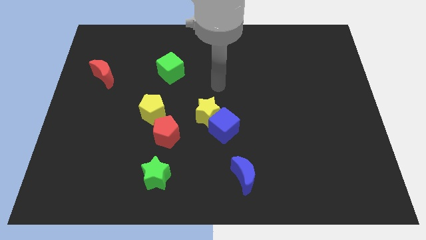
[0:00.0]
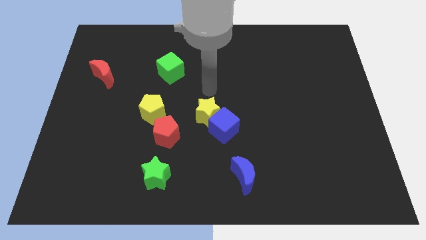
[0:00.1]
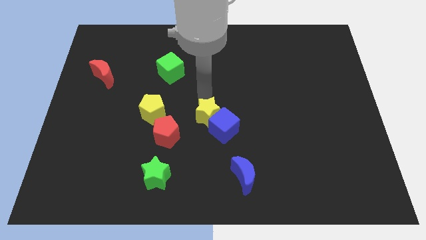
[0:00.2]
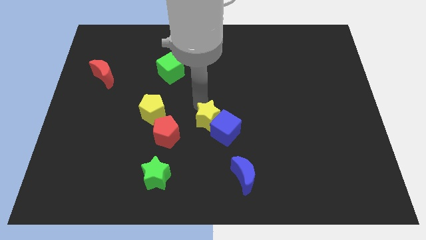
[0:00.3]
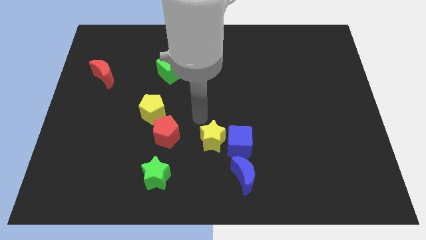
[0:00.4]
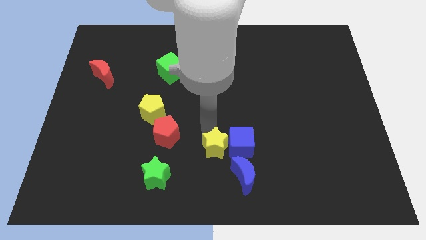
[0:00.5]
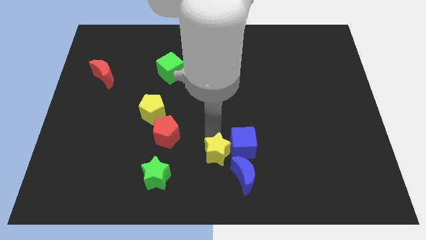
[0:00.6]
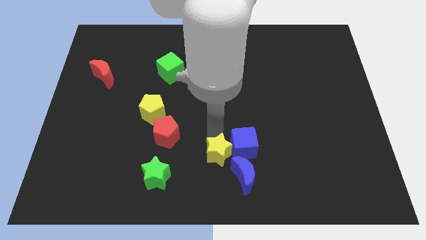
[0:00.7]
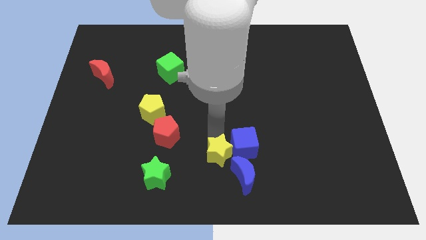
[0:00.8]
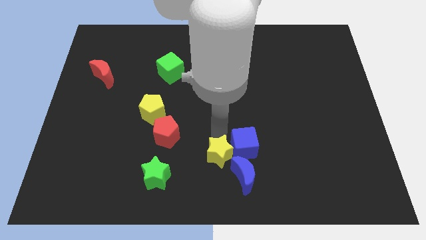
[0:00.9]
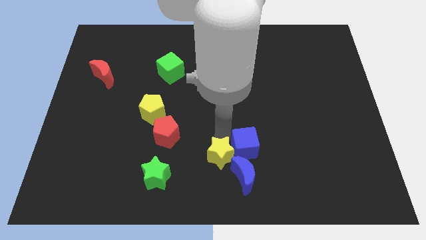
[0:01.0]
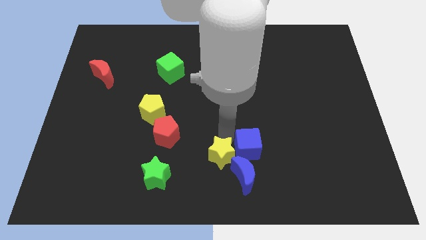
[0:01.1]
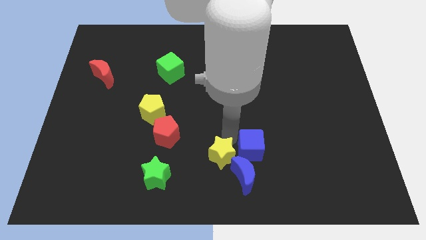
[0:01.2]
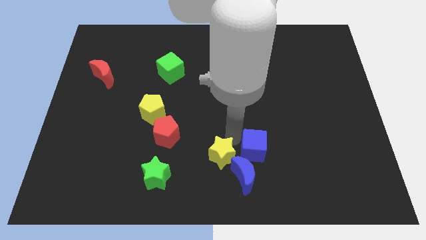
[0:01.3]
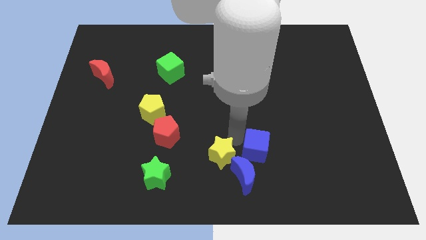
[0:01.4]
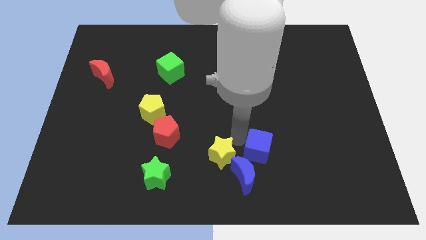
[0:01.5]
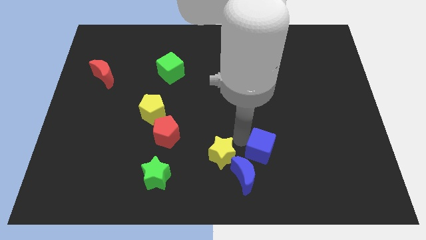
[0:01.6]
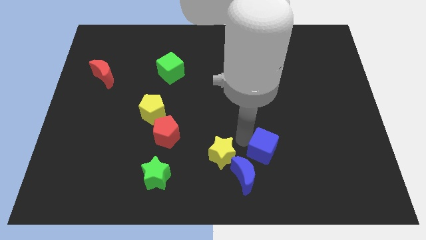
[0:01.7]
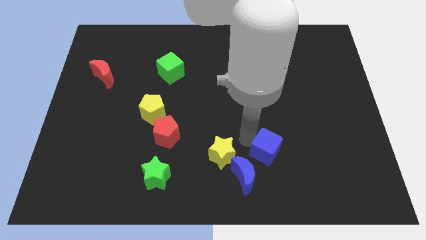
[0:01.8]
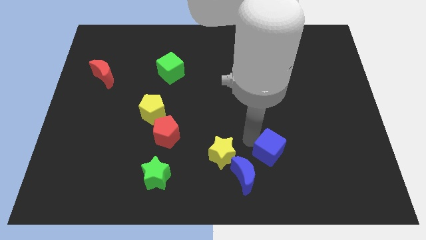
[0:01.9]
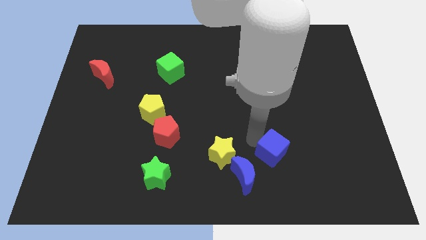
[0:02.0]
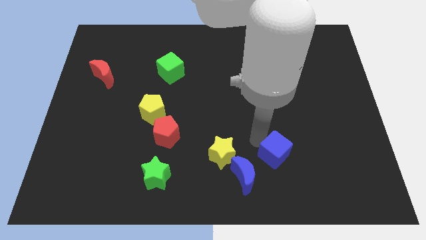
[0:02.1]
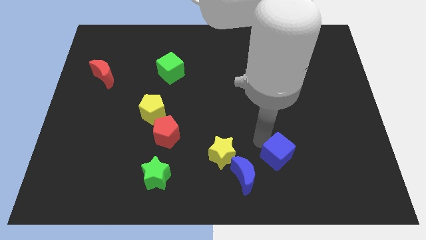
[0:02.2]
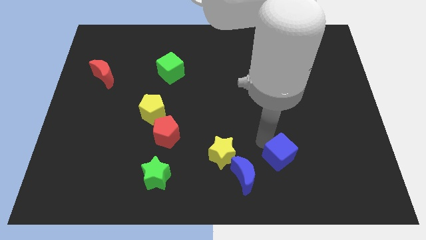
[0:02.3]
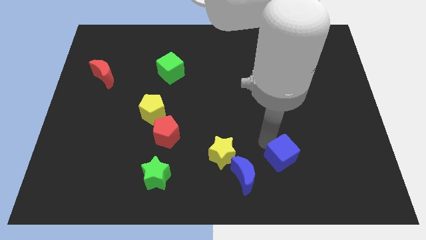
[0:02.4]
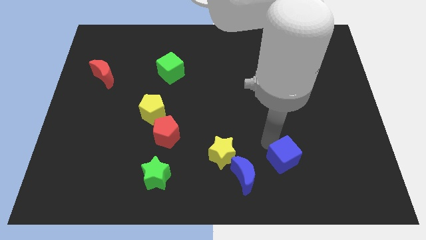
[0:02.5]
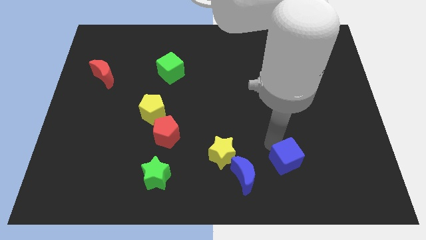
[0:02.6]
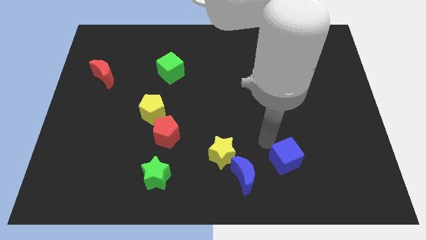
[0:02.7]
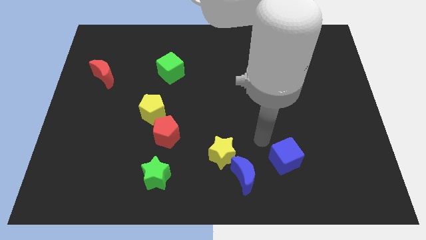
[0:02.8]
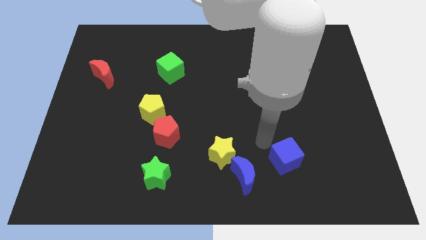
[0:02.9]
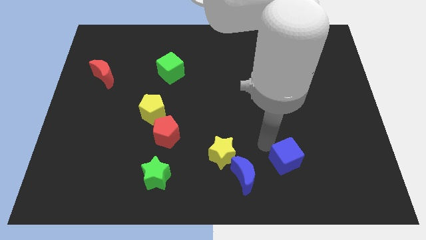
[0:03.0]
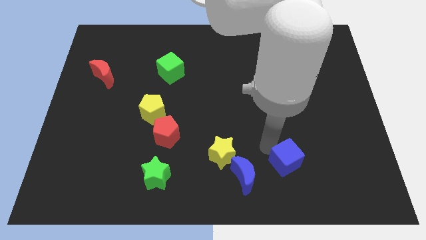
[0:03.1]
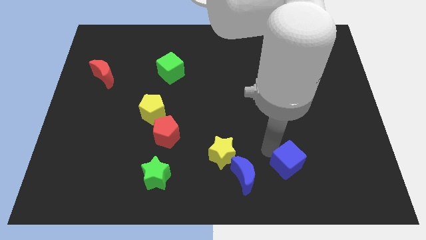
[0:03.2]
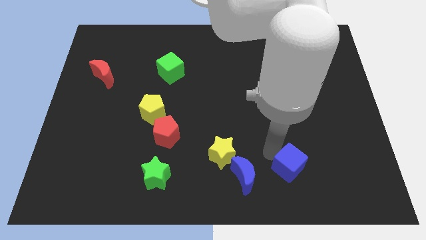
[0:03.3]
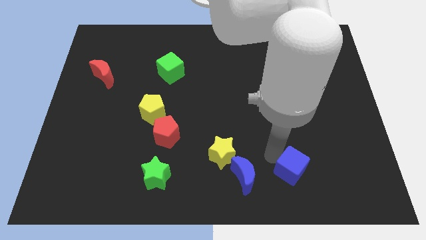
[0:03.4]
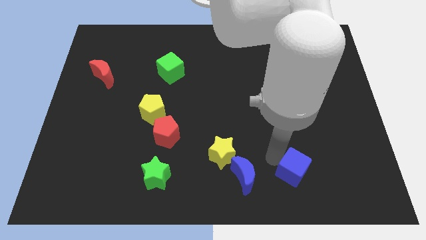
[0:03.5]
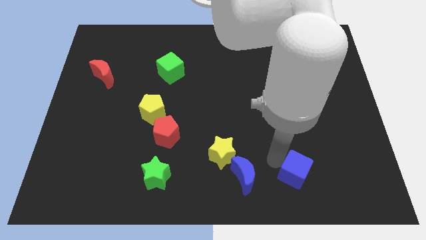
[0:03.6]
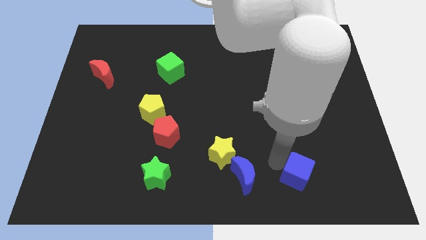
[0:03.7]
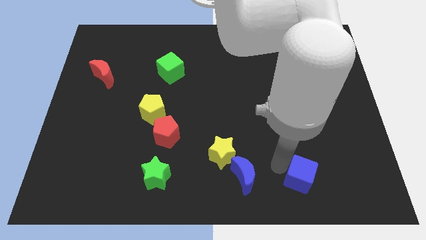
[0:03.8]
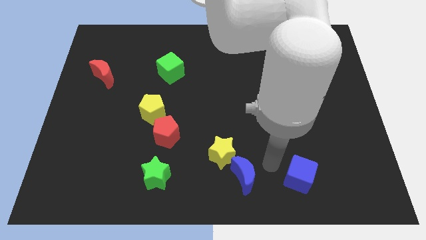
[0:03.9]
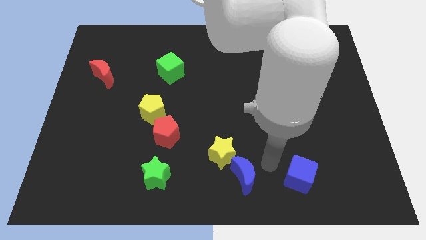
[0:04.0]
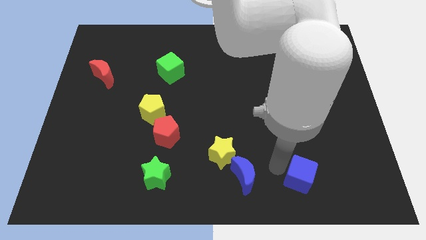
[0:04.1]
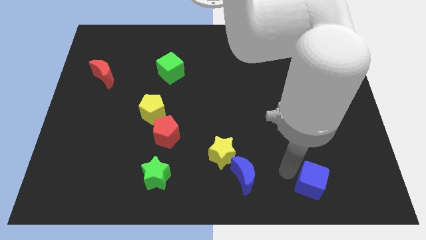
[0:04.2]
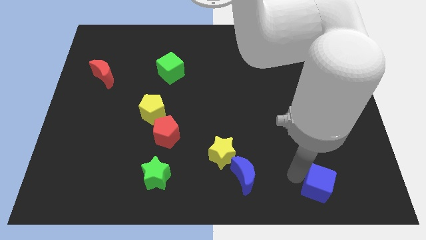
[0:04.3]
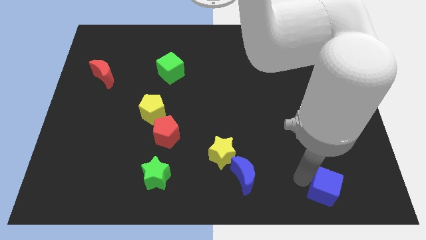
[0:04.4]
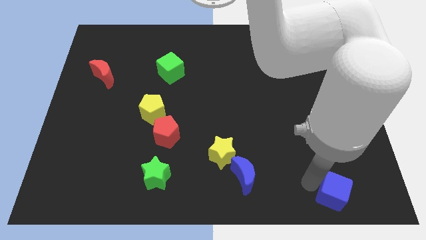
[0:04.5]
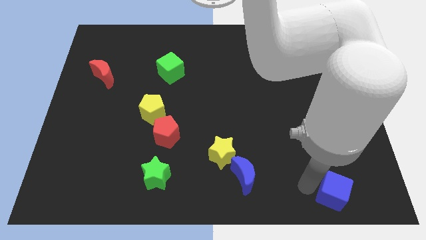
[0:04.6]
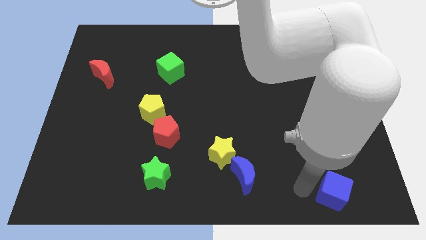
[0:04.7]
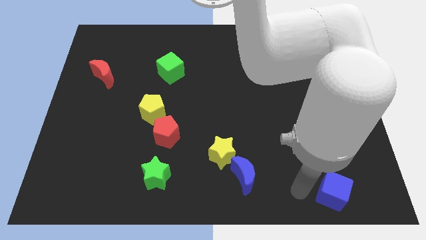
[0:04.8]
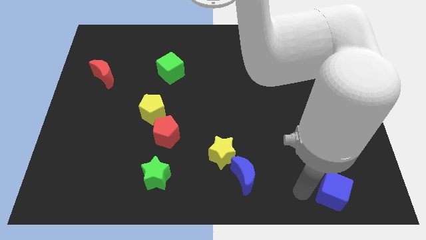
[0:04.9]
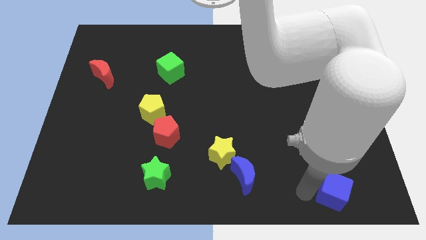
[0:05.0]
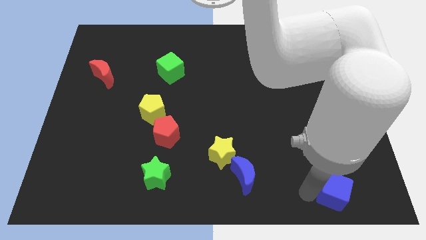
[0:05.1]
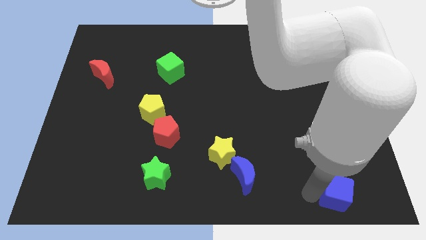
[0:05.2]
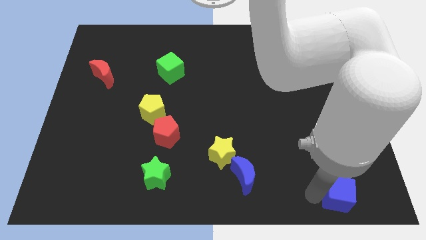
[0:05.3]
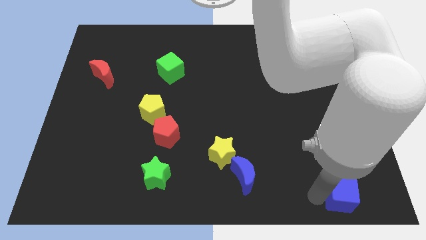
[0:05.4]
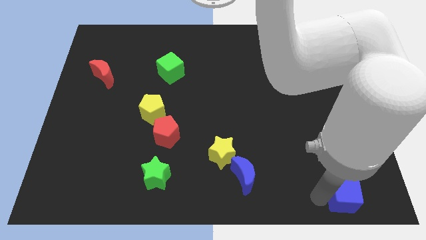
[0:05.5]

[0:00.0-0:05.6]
put the blue cube to the bottom right of the board

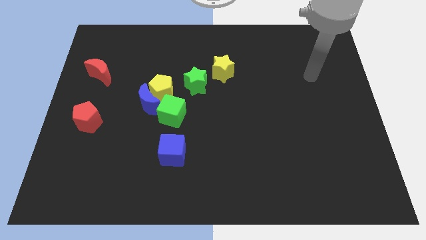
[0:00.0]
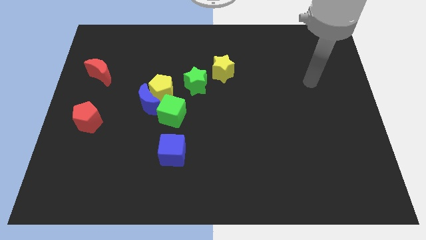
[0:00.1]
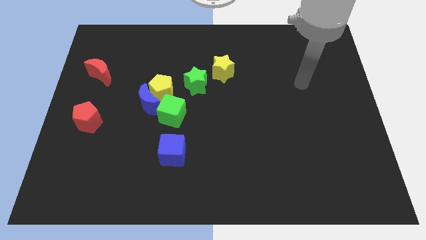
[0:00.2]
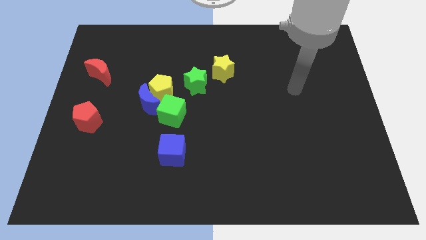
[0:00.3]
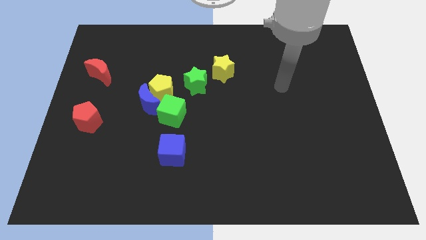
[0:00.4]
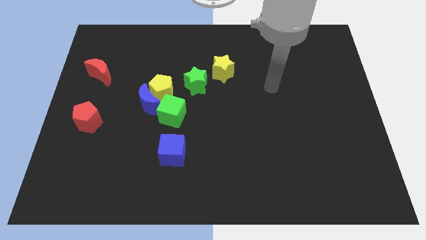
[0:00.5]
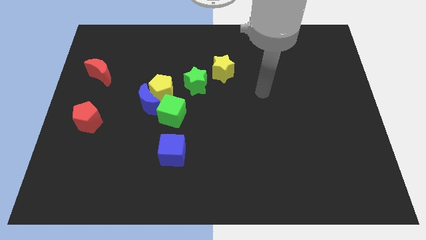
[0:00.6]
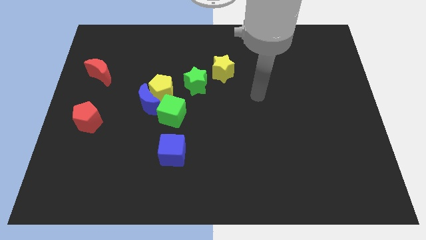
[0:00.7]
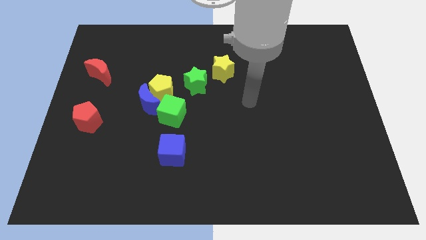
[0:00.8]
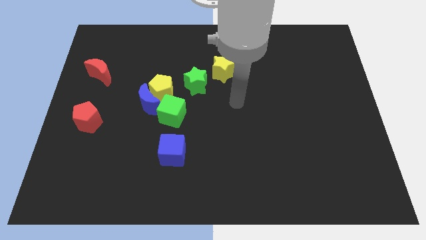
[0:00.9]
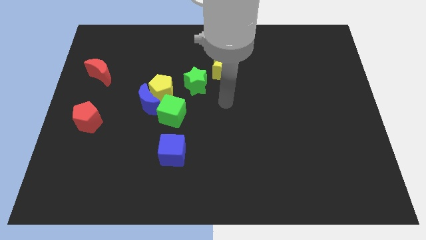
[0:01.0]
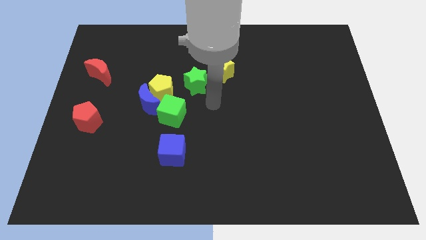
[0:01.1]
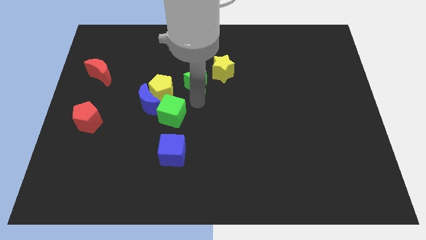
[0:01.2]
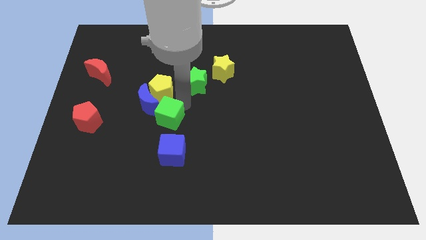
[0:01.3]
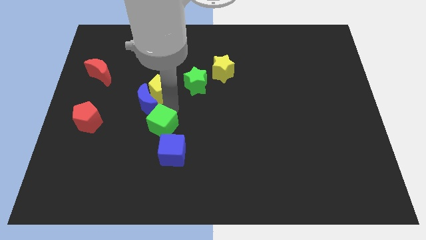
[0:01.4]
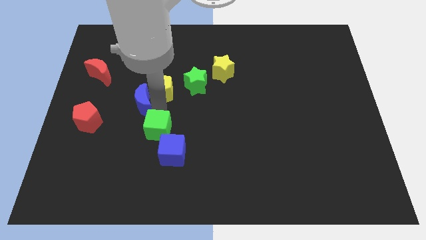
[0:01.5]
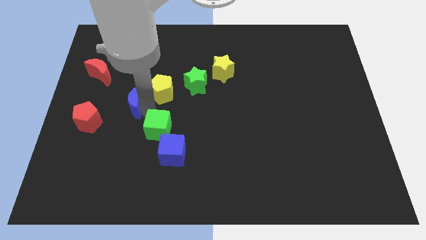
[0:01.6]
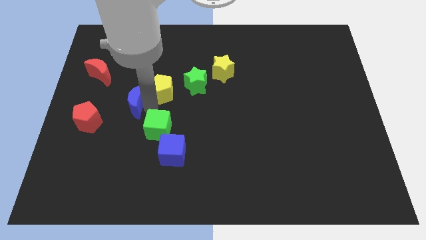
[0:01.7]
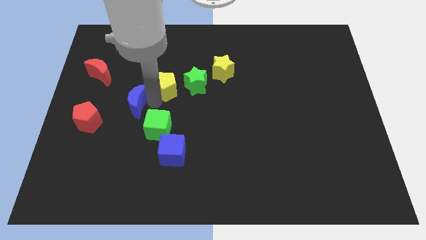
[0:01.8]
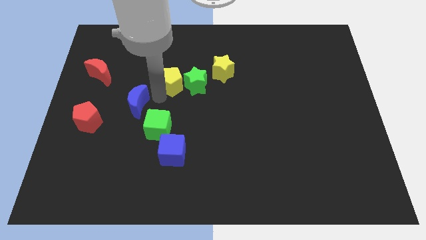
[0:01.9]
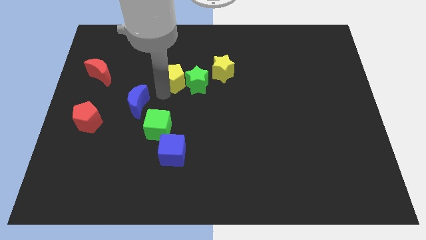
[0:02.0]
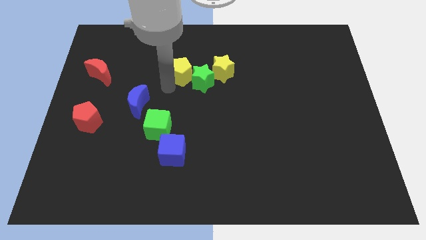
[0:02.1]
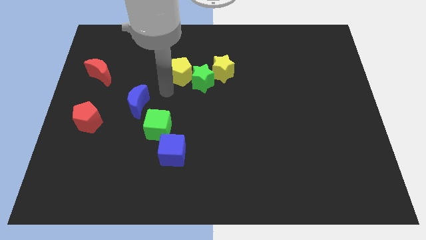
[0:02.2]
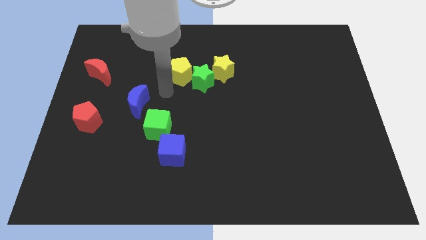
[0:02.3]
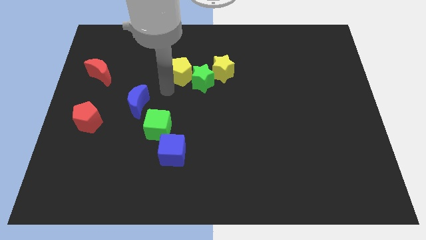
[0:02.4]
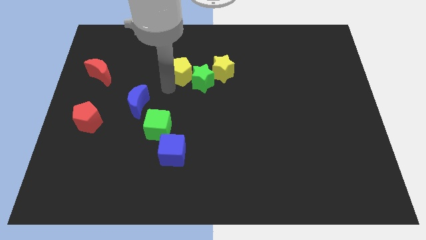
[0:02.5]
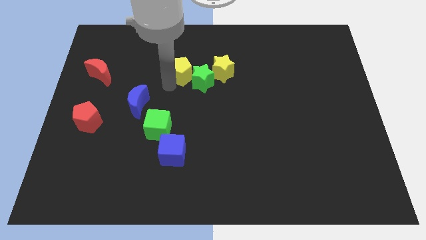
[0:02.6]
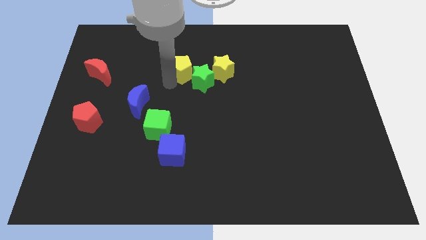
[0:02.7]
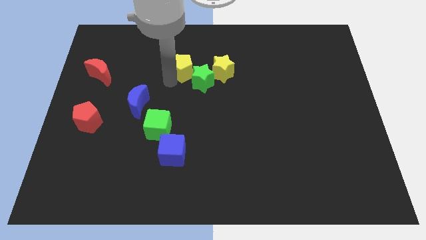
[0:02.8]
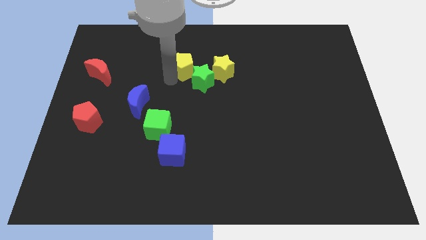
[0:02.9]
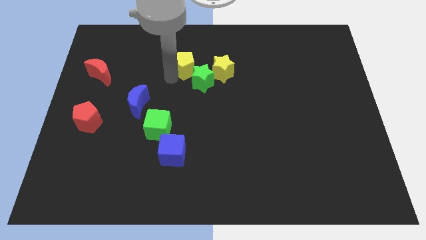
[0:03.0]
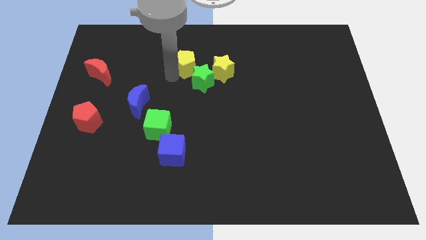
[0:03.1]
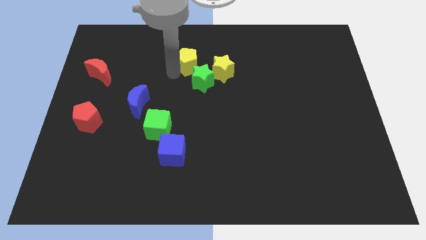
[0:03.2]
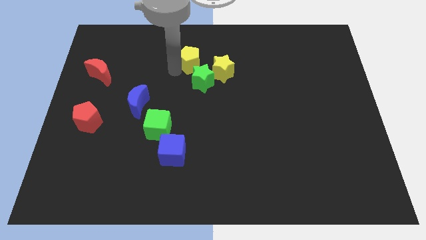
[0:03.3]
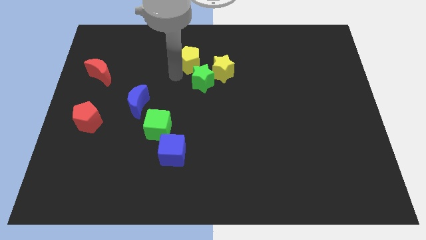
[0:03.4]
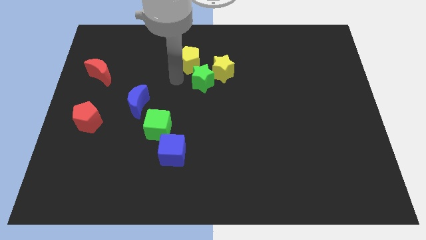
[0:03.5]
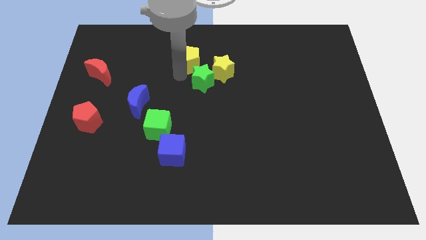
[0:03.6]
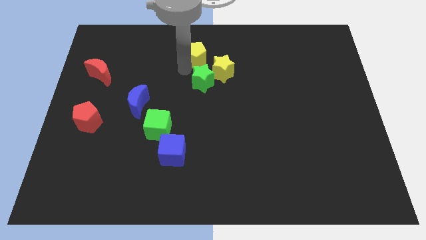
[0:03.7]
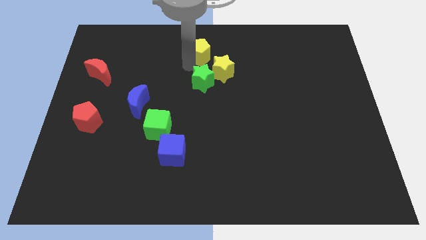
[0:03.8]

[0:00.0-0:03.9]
push the yellow pentagon to the top side
